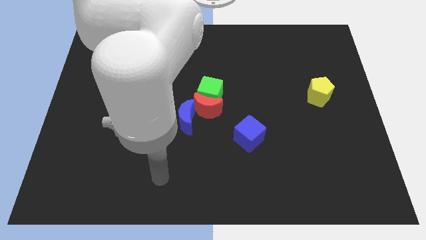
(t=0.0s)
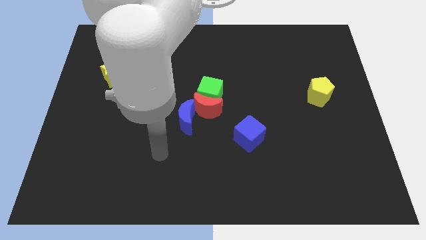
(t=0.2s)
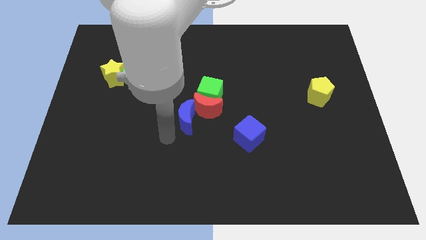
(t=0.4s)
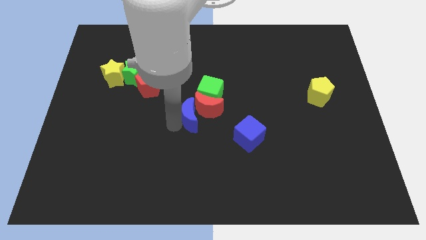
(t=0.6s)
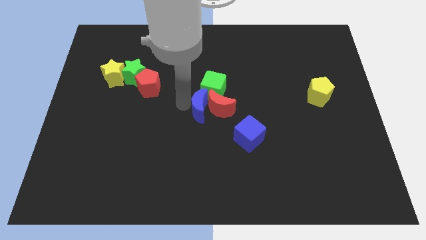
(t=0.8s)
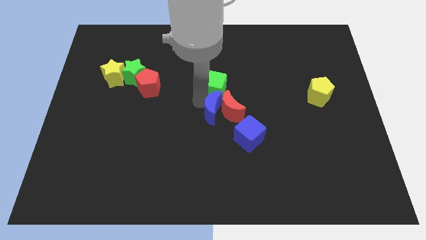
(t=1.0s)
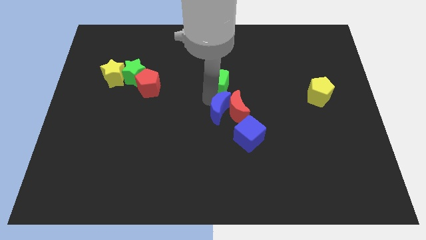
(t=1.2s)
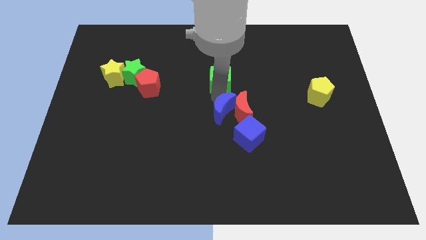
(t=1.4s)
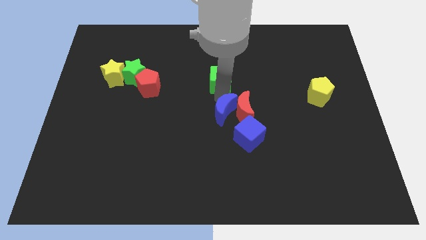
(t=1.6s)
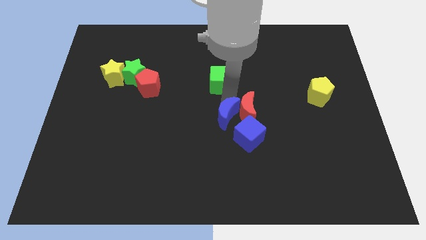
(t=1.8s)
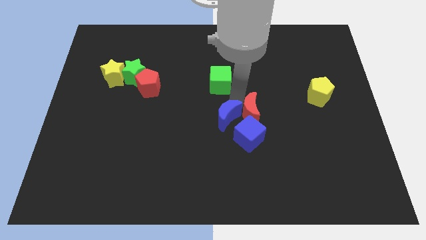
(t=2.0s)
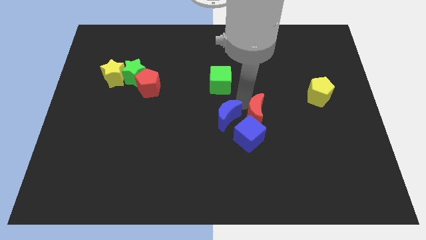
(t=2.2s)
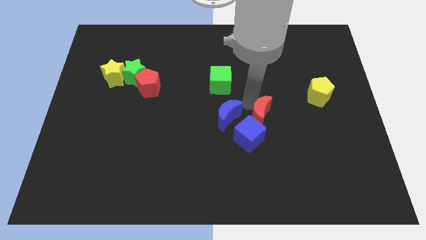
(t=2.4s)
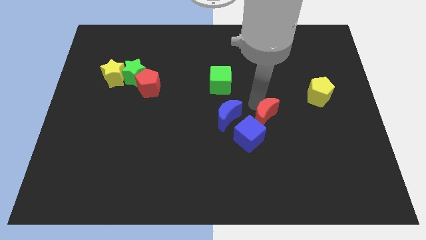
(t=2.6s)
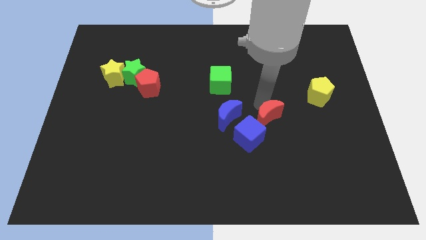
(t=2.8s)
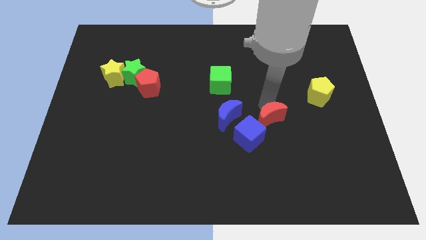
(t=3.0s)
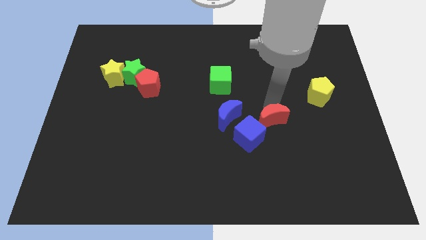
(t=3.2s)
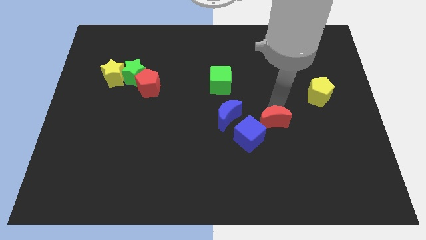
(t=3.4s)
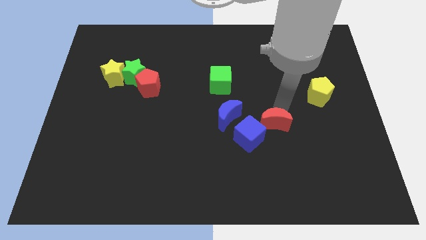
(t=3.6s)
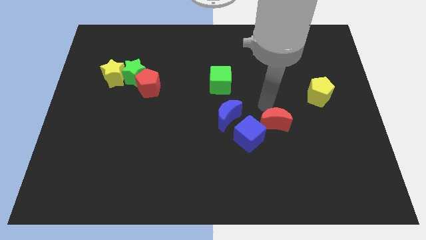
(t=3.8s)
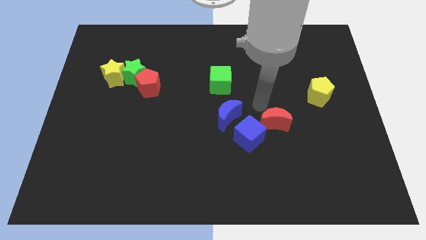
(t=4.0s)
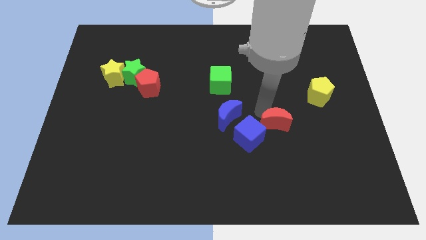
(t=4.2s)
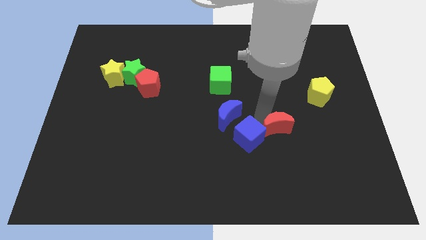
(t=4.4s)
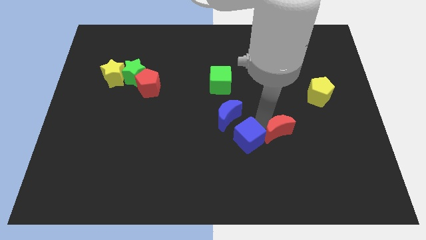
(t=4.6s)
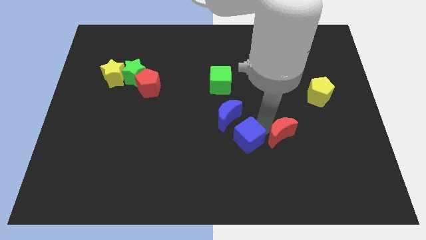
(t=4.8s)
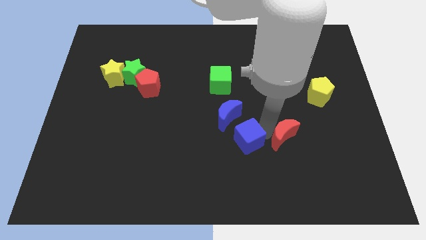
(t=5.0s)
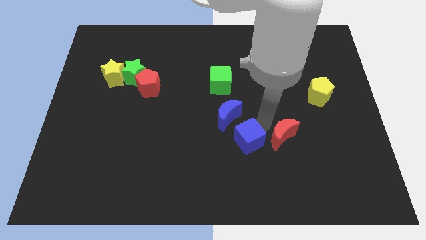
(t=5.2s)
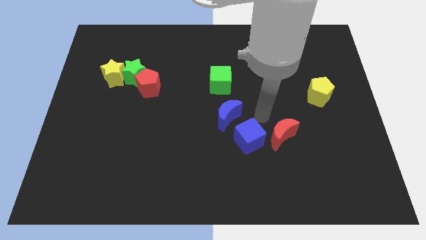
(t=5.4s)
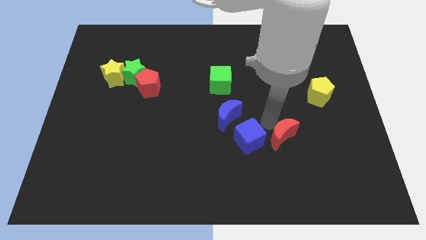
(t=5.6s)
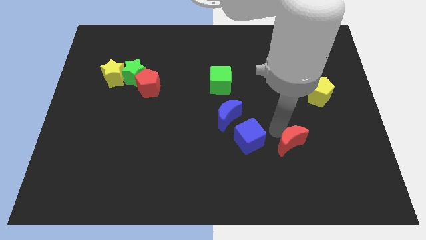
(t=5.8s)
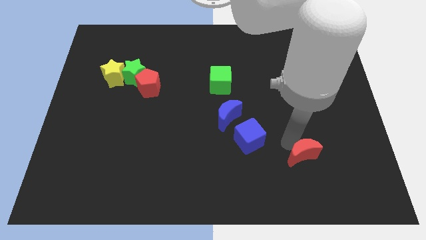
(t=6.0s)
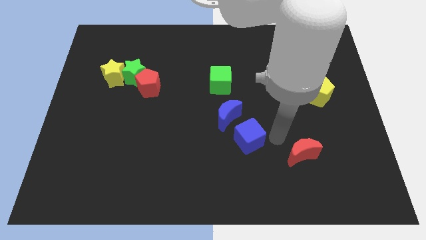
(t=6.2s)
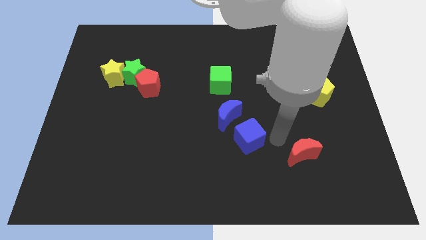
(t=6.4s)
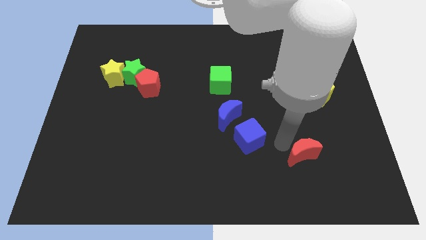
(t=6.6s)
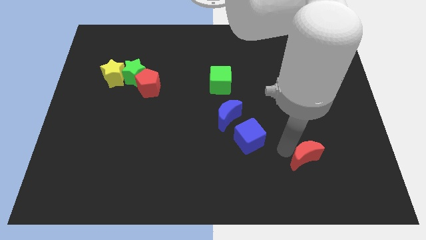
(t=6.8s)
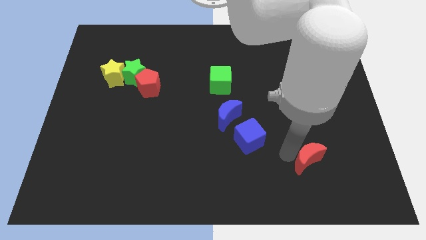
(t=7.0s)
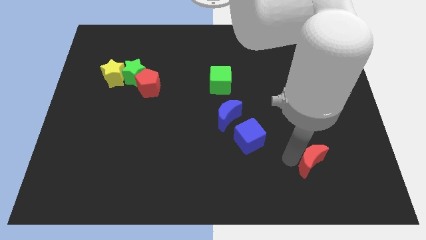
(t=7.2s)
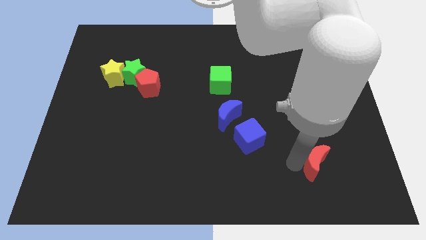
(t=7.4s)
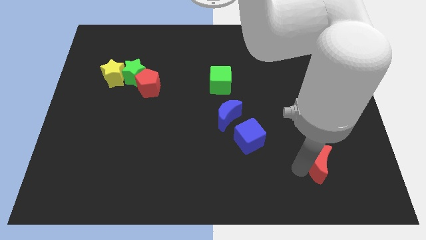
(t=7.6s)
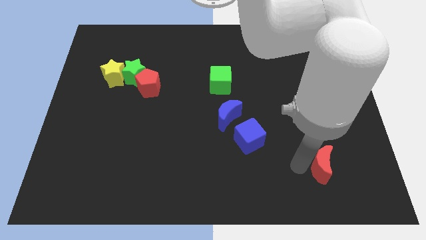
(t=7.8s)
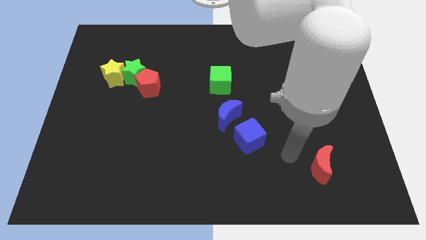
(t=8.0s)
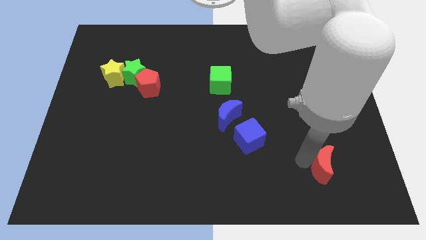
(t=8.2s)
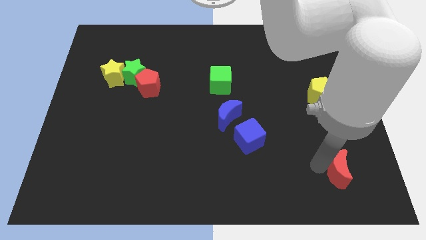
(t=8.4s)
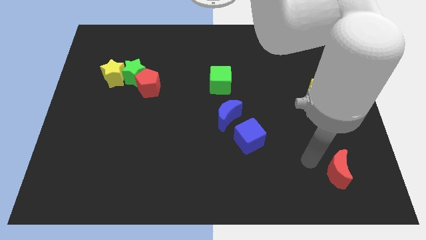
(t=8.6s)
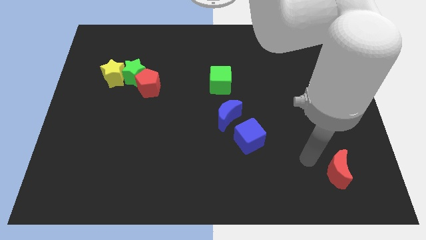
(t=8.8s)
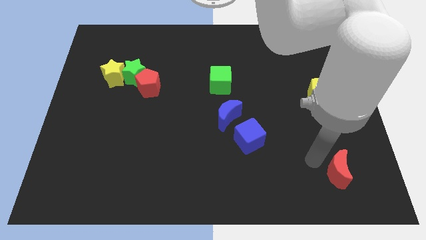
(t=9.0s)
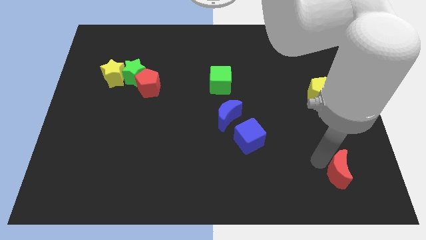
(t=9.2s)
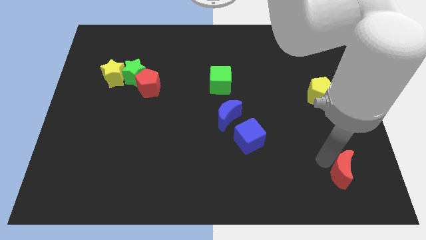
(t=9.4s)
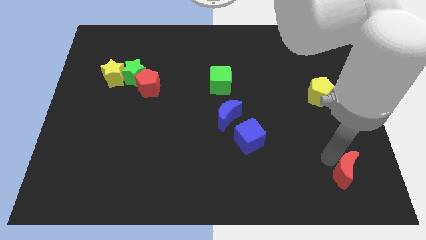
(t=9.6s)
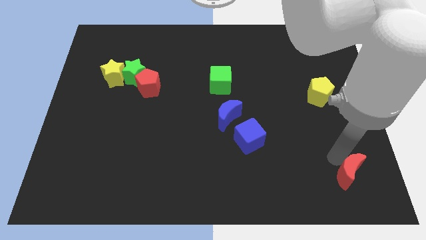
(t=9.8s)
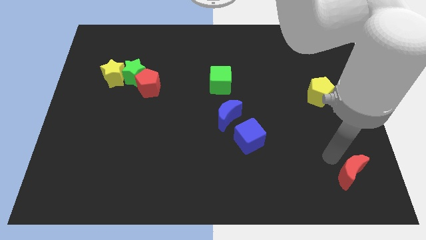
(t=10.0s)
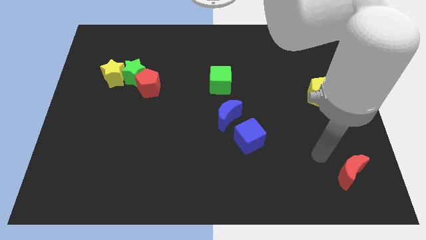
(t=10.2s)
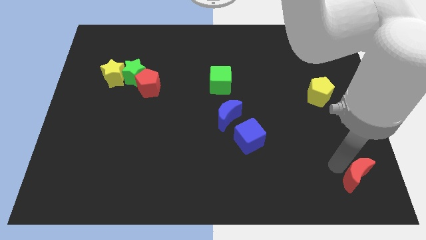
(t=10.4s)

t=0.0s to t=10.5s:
slide the red moon to the bottom right of the board

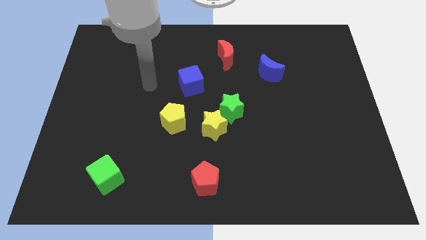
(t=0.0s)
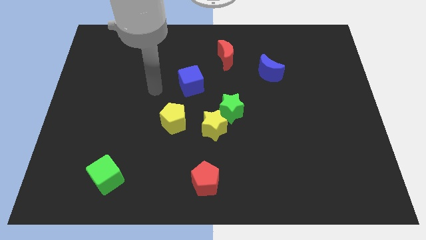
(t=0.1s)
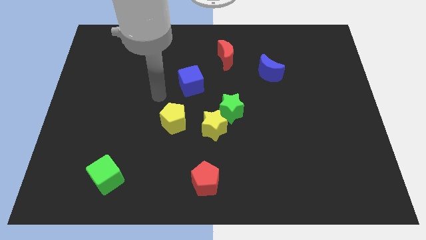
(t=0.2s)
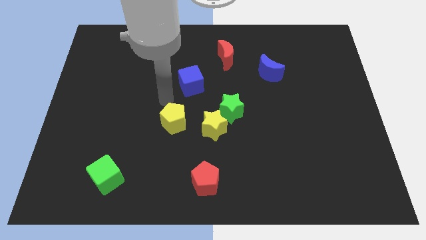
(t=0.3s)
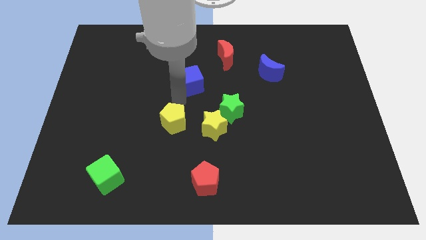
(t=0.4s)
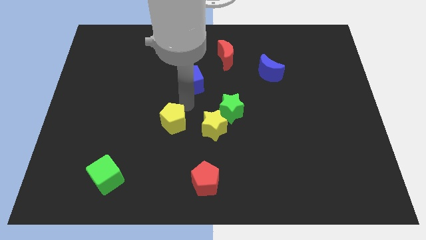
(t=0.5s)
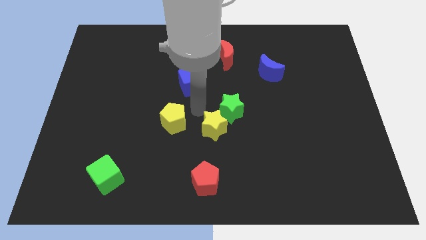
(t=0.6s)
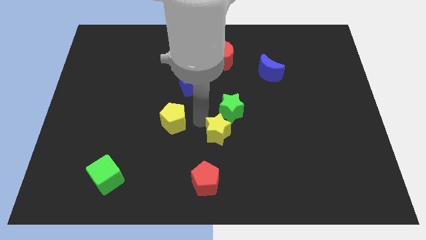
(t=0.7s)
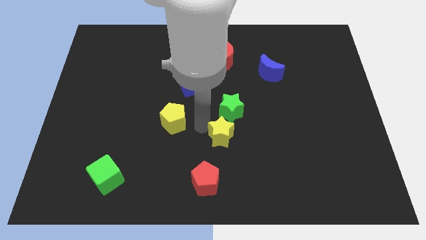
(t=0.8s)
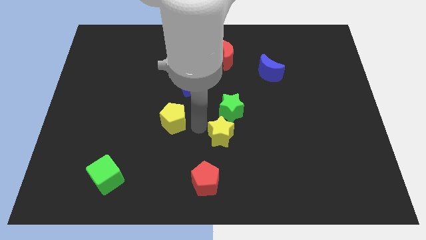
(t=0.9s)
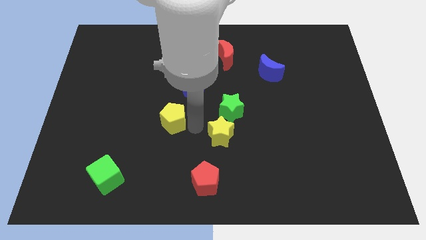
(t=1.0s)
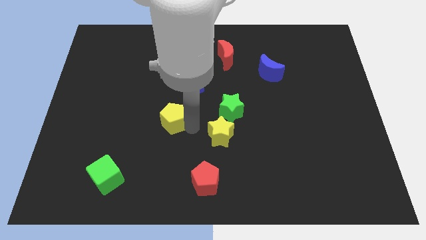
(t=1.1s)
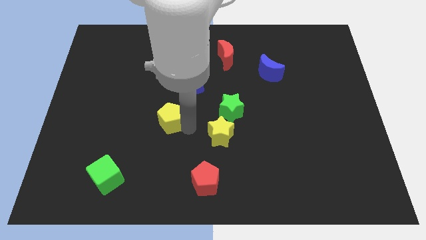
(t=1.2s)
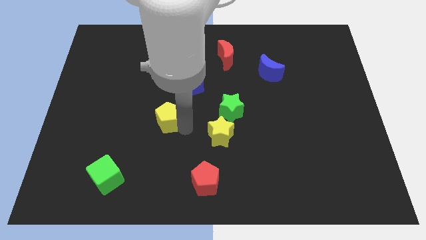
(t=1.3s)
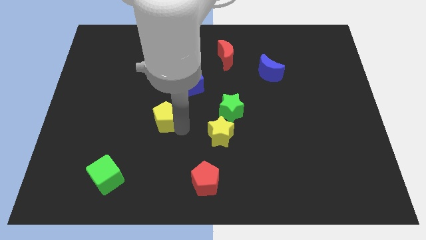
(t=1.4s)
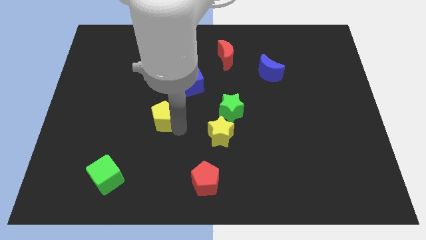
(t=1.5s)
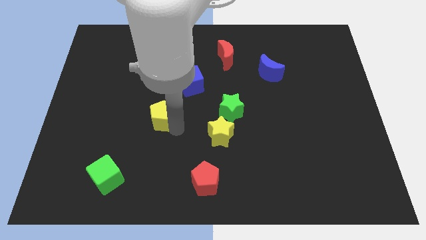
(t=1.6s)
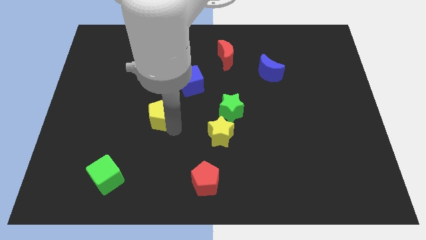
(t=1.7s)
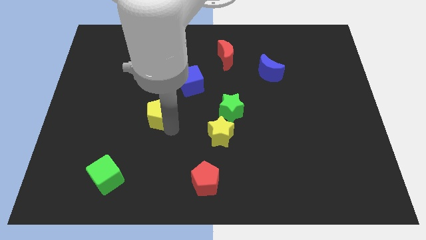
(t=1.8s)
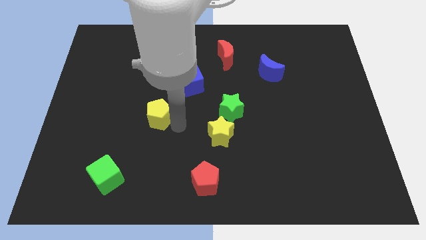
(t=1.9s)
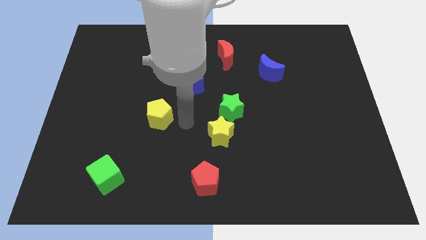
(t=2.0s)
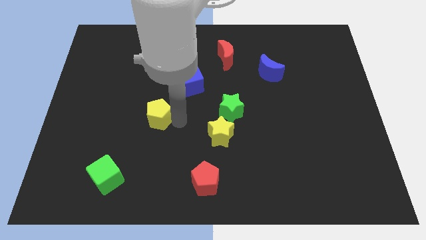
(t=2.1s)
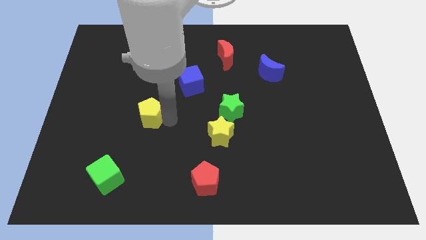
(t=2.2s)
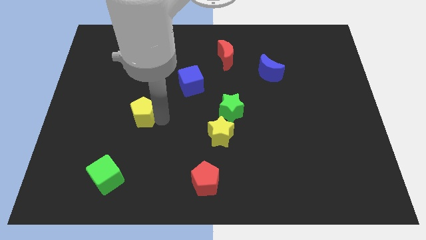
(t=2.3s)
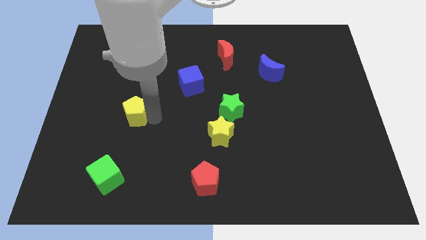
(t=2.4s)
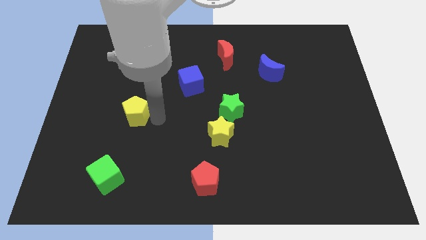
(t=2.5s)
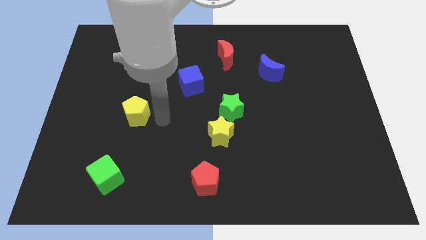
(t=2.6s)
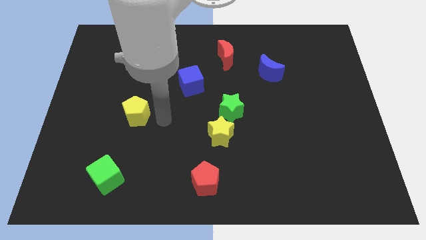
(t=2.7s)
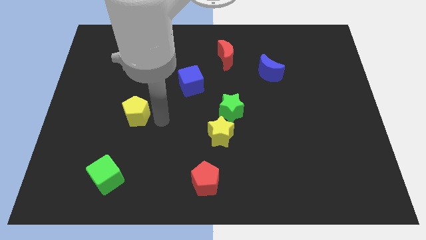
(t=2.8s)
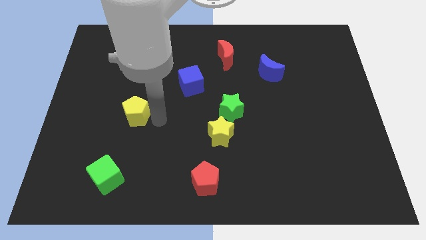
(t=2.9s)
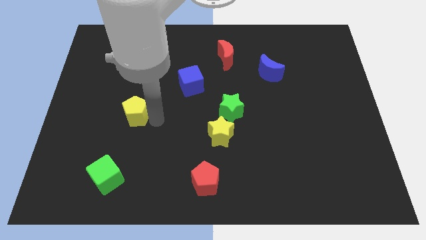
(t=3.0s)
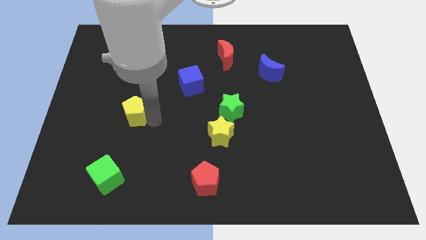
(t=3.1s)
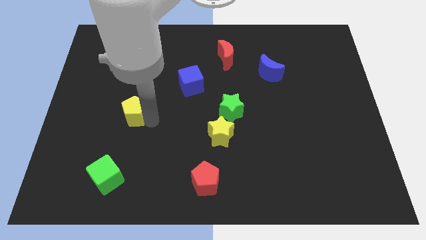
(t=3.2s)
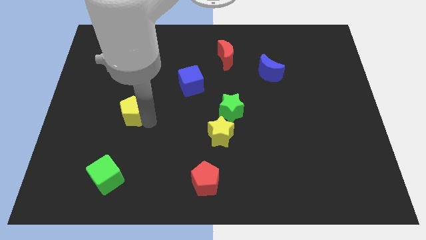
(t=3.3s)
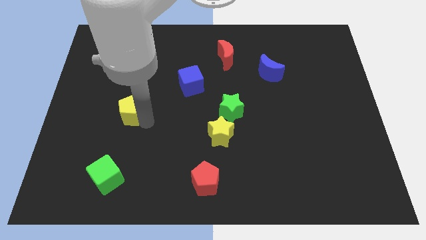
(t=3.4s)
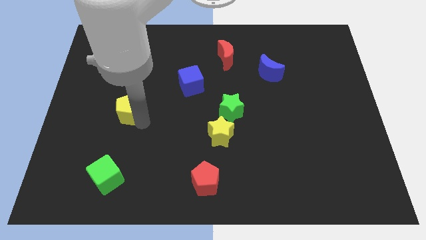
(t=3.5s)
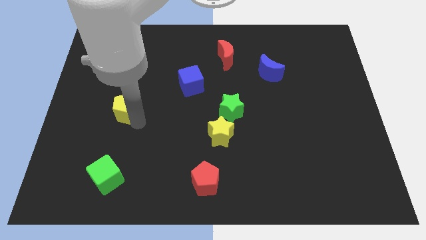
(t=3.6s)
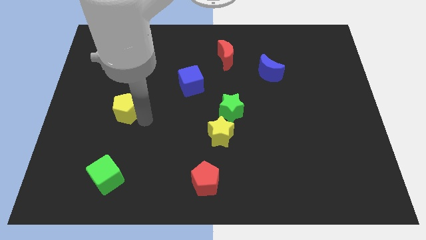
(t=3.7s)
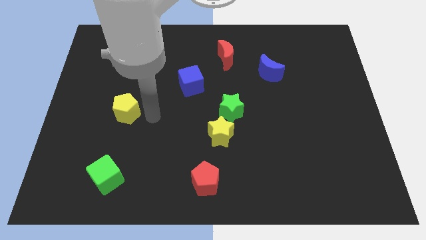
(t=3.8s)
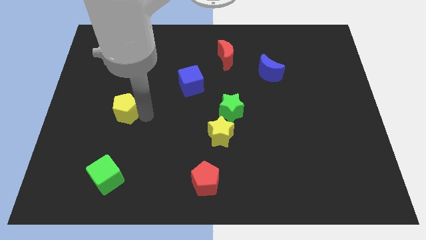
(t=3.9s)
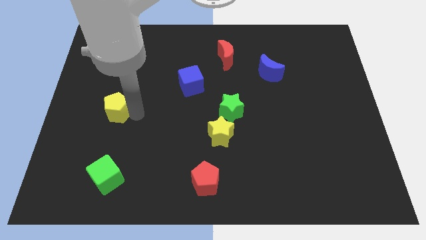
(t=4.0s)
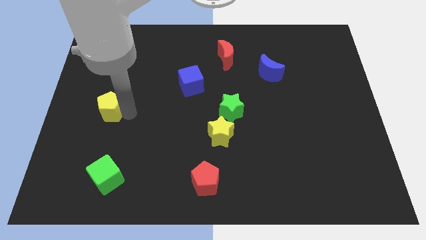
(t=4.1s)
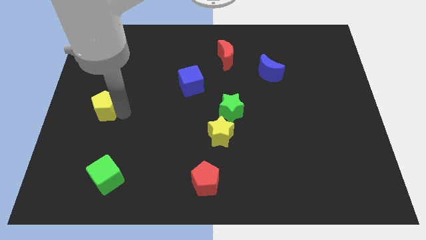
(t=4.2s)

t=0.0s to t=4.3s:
push the yellow pentagon to the left side of the board
